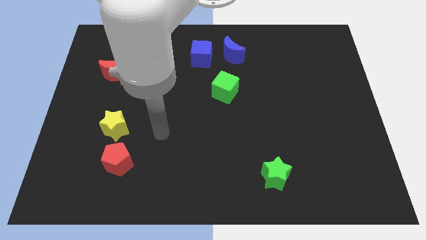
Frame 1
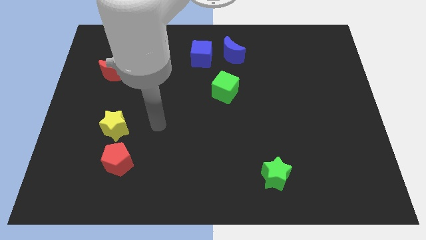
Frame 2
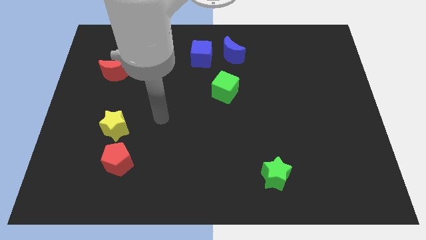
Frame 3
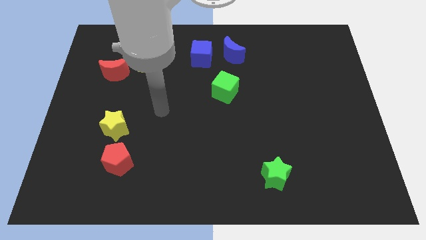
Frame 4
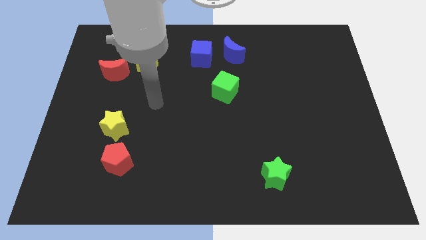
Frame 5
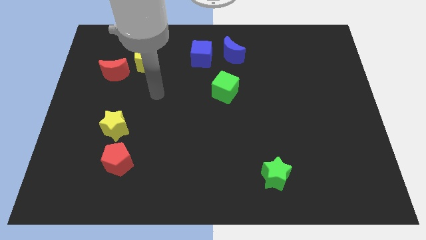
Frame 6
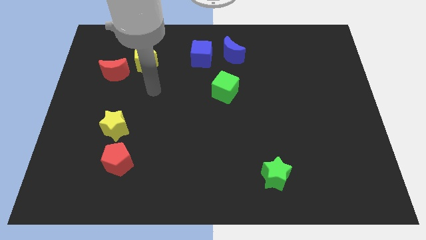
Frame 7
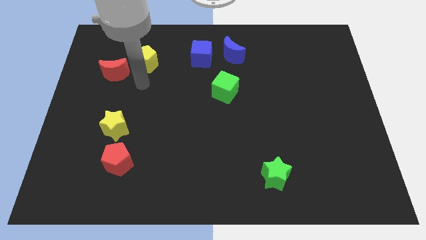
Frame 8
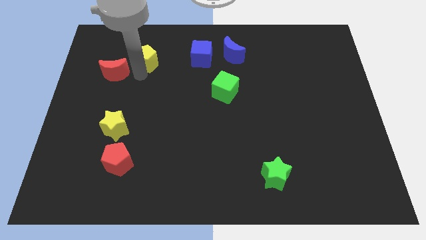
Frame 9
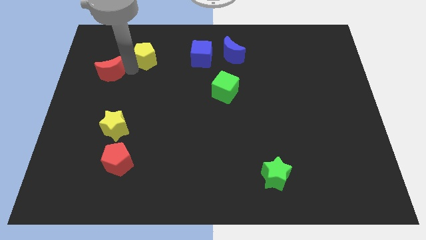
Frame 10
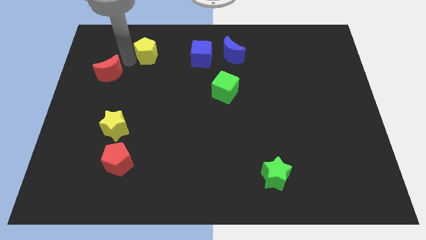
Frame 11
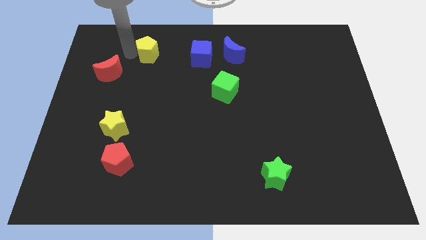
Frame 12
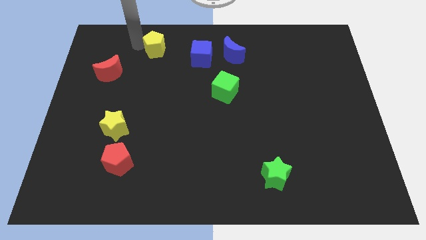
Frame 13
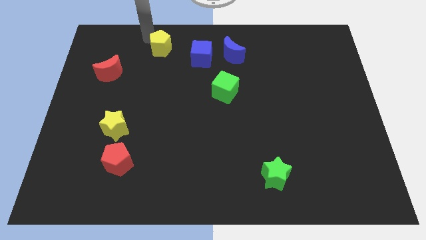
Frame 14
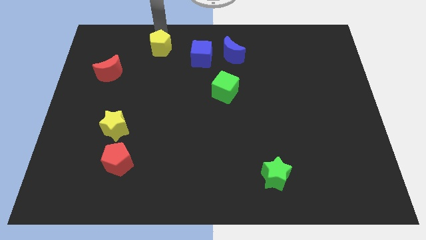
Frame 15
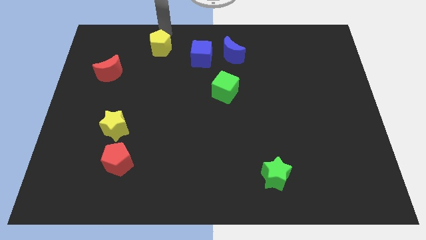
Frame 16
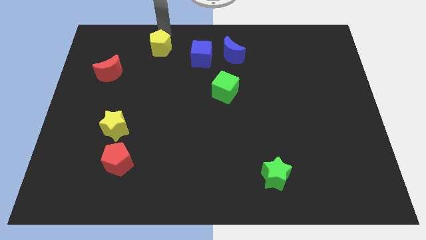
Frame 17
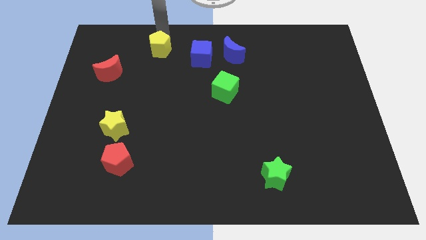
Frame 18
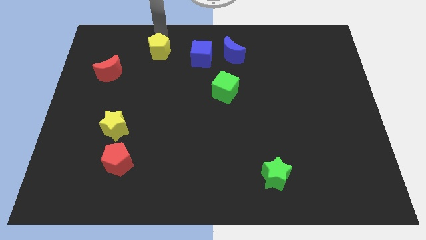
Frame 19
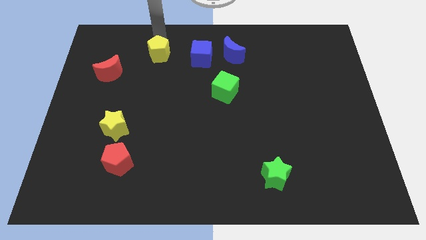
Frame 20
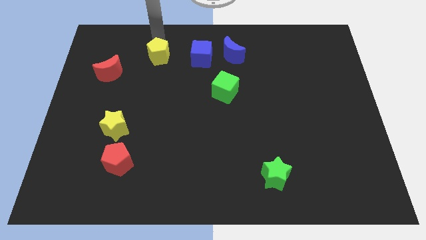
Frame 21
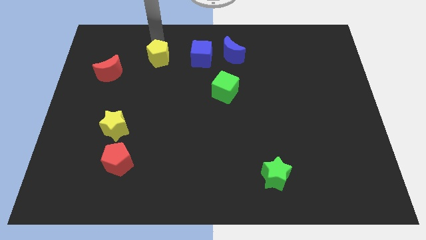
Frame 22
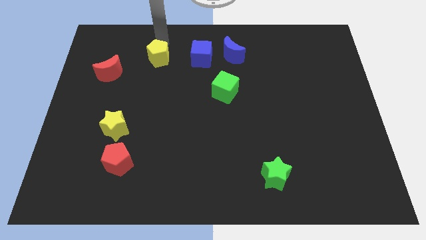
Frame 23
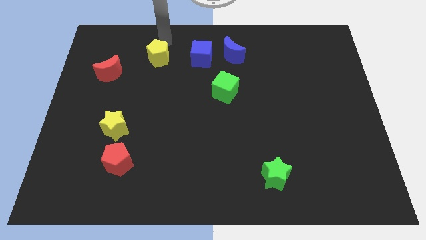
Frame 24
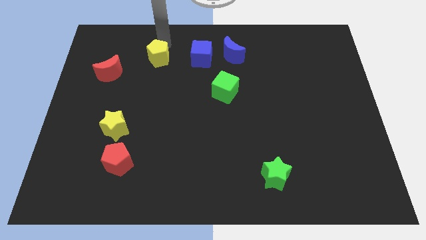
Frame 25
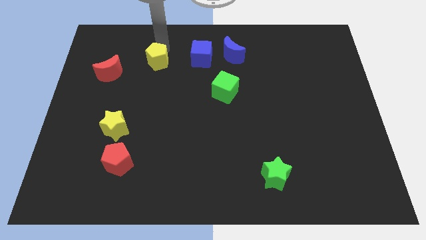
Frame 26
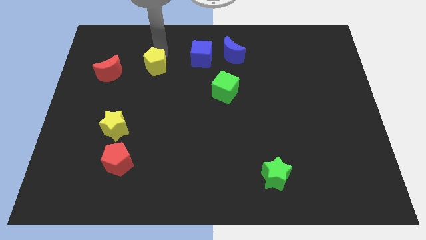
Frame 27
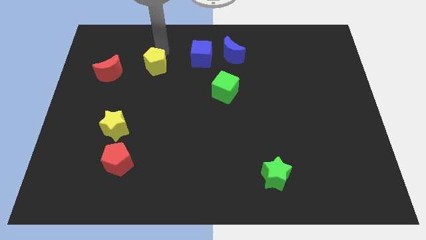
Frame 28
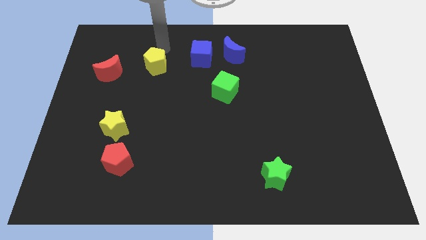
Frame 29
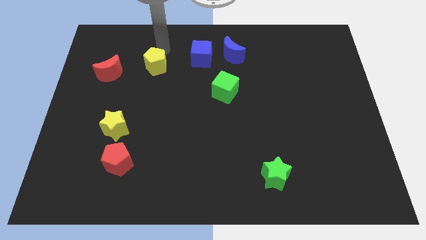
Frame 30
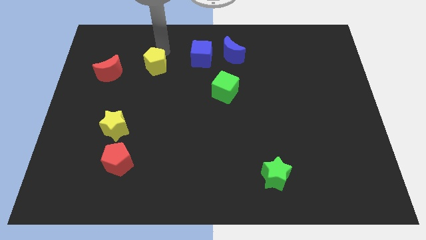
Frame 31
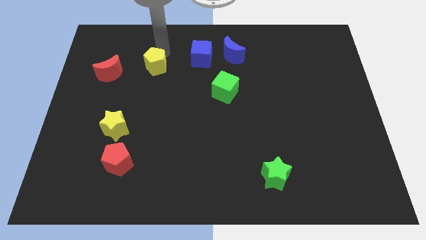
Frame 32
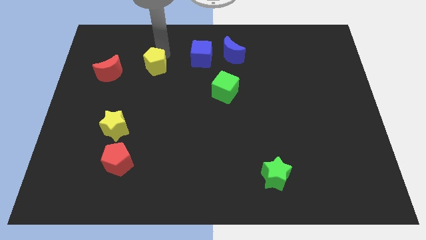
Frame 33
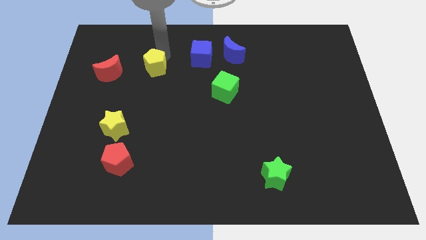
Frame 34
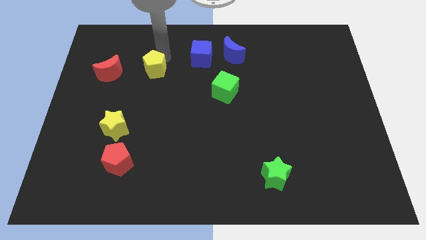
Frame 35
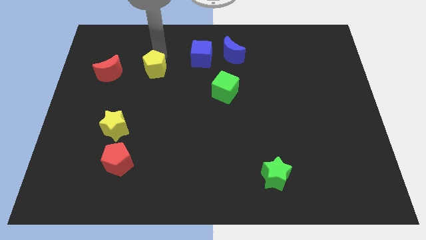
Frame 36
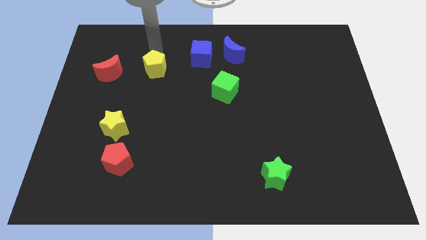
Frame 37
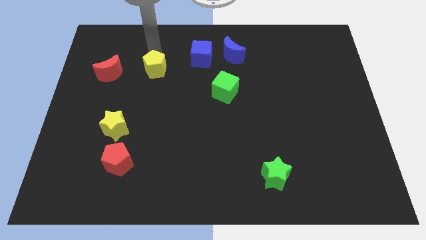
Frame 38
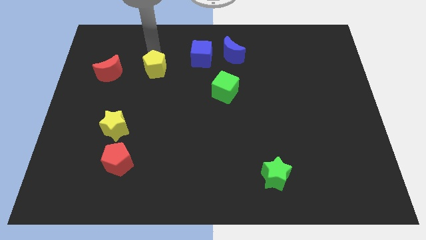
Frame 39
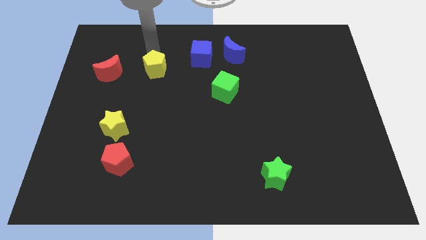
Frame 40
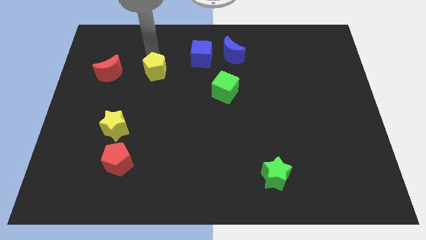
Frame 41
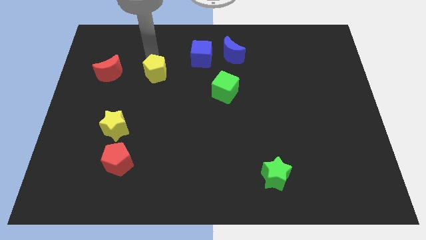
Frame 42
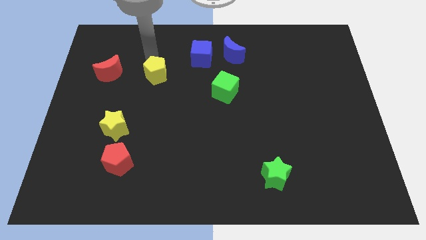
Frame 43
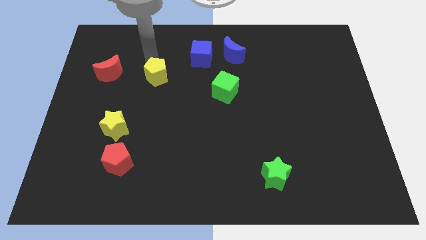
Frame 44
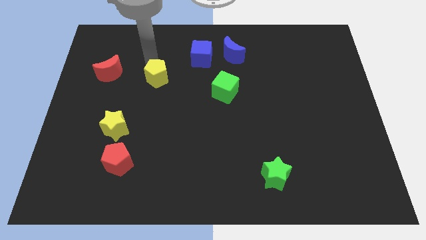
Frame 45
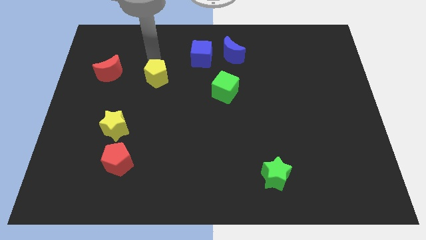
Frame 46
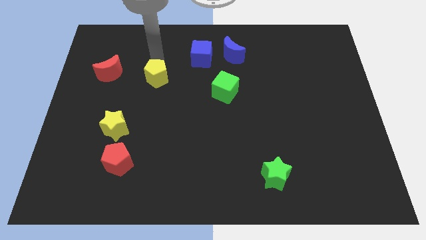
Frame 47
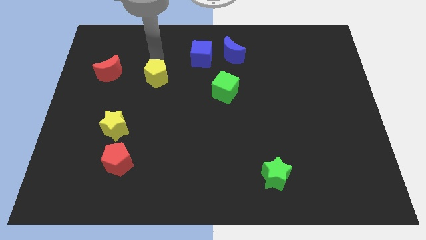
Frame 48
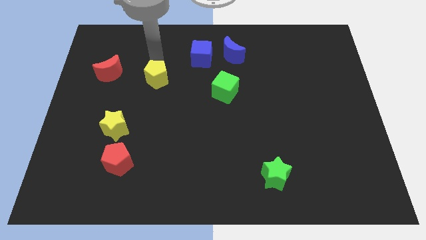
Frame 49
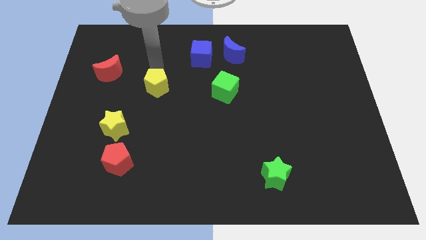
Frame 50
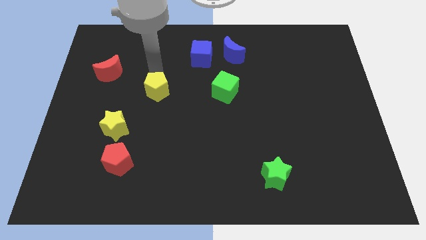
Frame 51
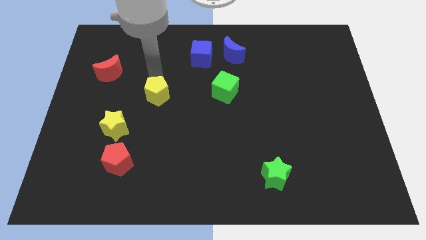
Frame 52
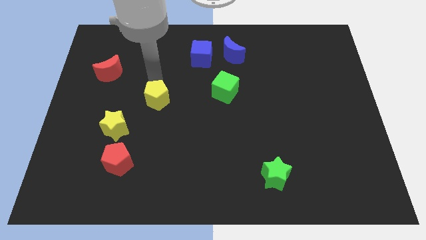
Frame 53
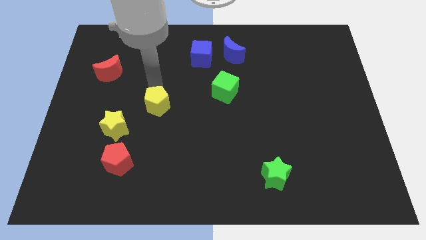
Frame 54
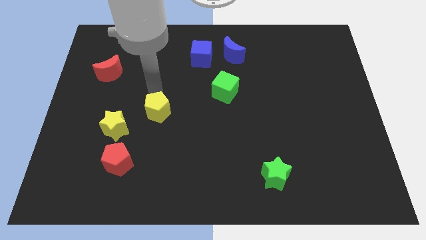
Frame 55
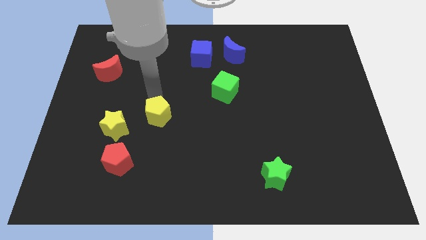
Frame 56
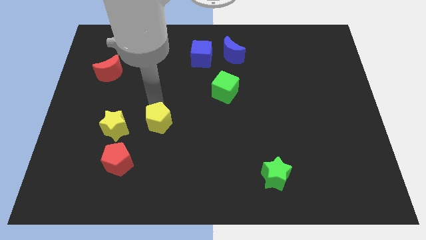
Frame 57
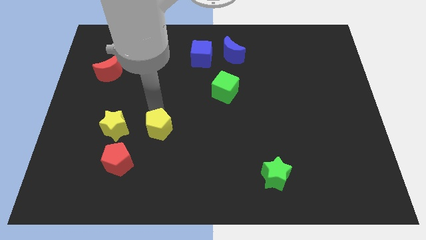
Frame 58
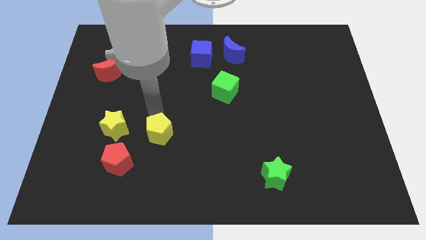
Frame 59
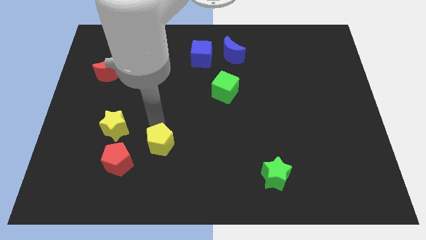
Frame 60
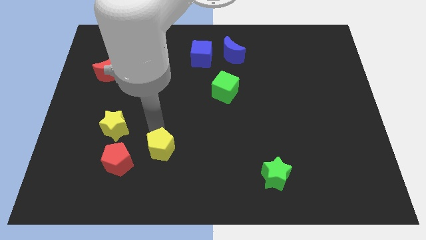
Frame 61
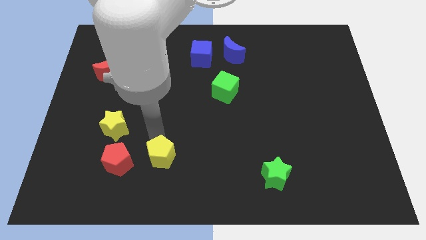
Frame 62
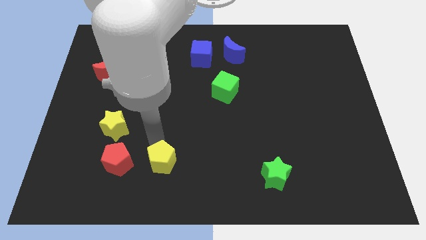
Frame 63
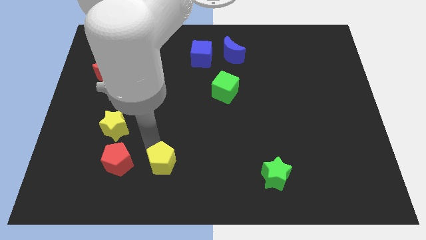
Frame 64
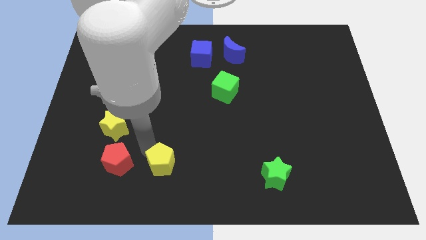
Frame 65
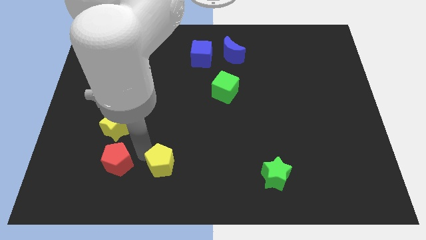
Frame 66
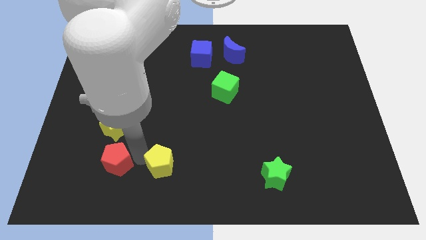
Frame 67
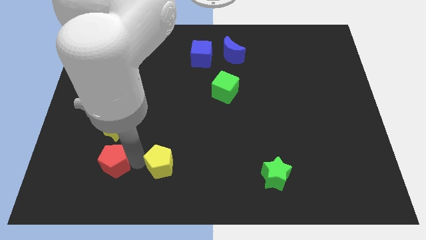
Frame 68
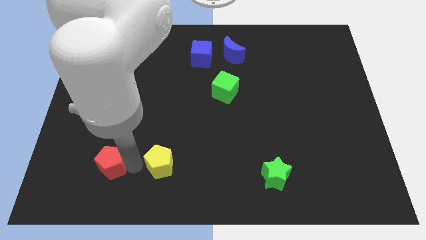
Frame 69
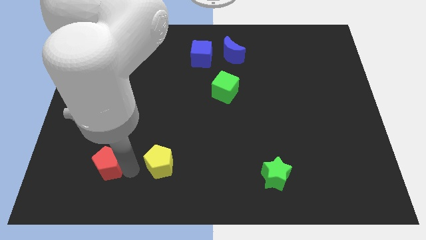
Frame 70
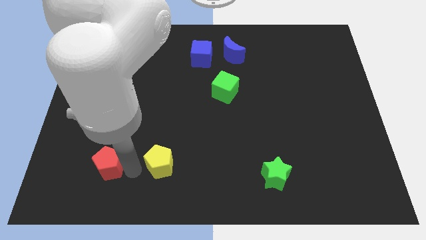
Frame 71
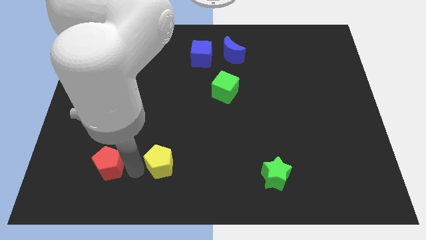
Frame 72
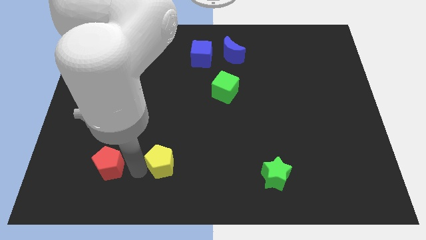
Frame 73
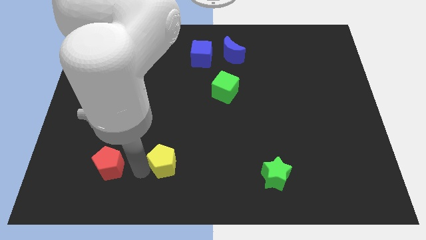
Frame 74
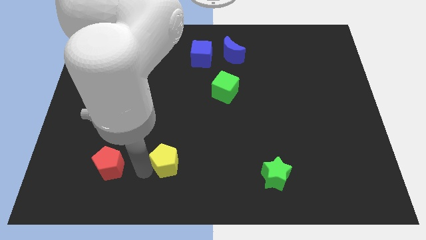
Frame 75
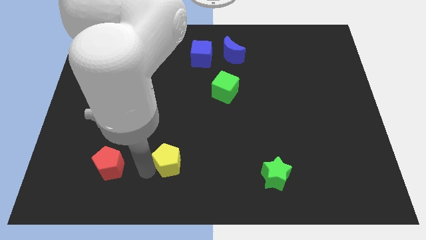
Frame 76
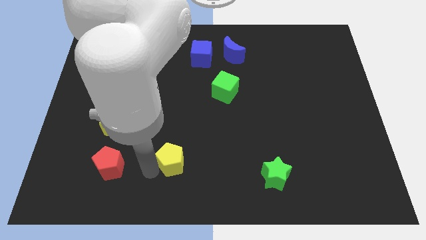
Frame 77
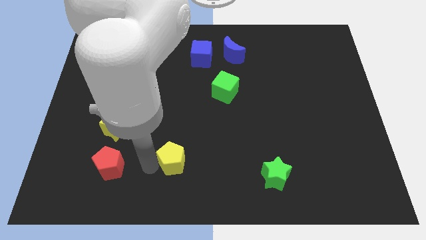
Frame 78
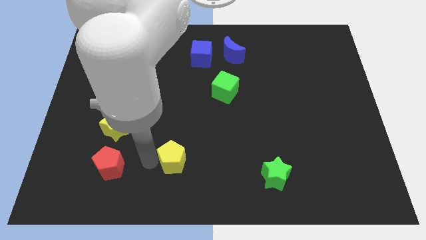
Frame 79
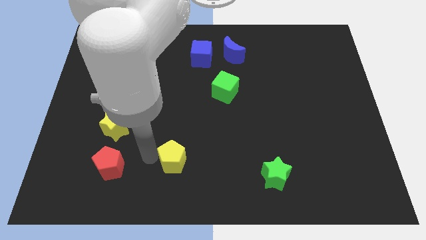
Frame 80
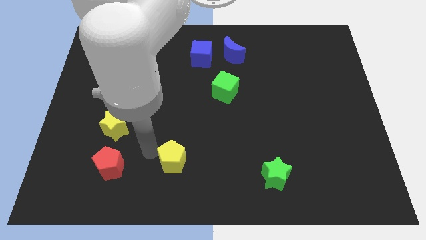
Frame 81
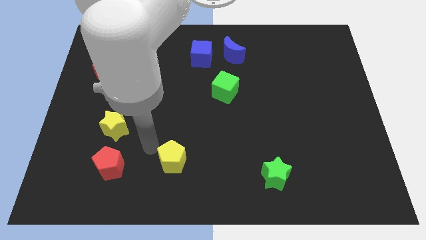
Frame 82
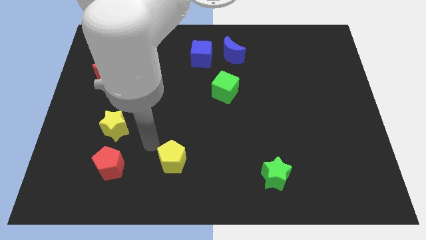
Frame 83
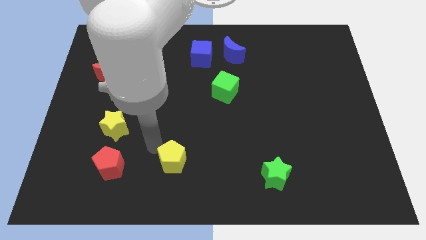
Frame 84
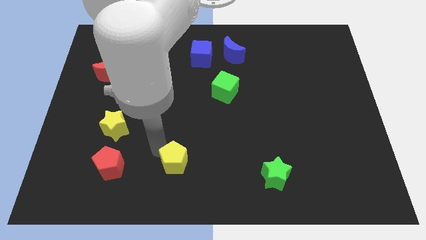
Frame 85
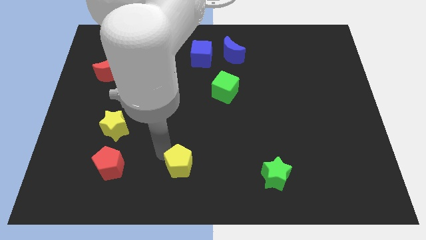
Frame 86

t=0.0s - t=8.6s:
move the yellow pentagon to the bottom side
